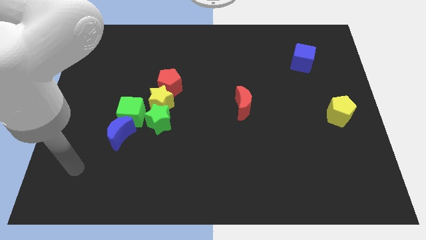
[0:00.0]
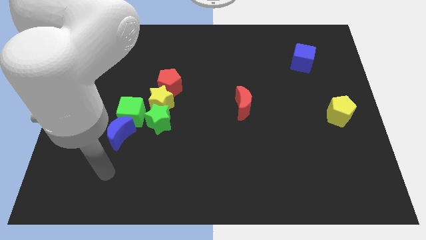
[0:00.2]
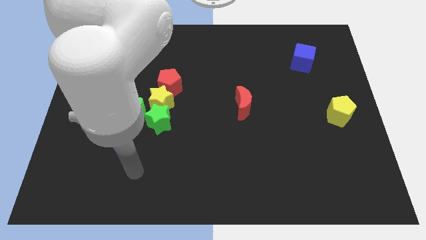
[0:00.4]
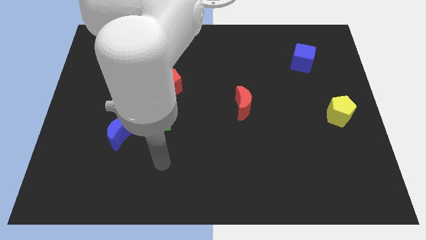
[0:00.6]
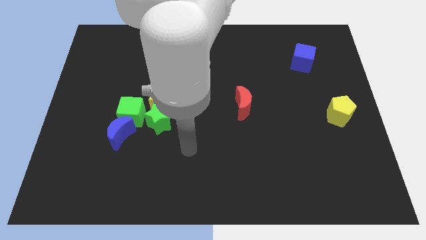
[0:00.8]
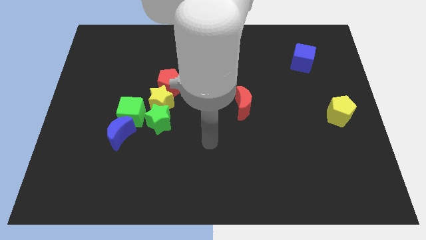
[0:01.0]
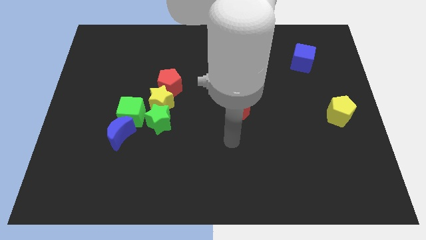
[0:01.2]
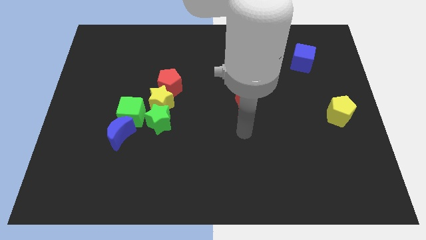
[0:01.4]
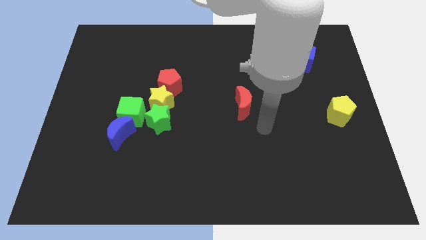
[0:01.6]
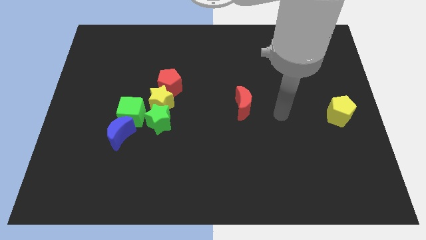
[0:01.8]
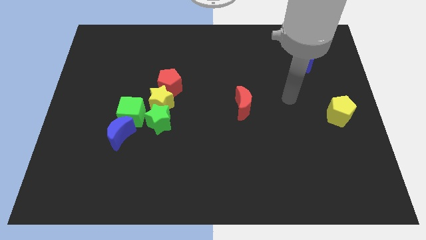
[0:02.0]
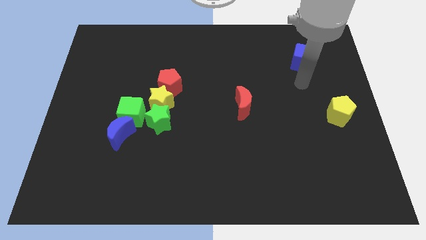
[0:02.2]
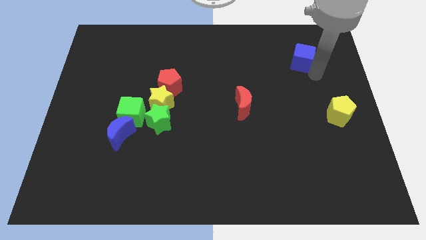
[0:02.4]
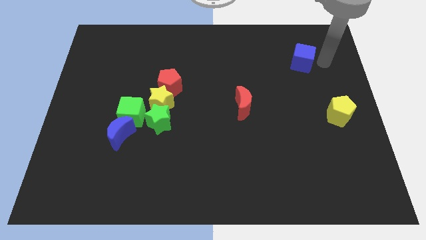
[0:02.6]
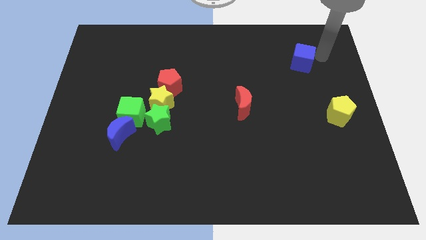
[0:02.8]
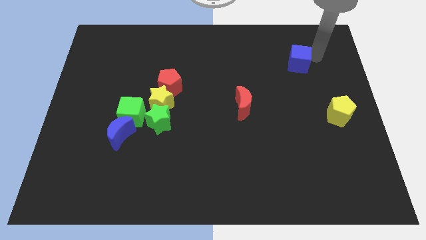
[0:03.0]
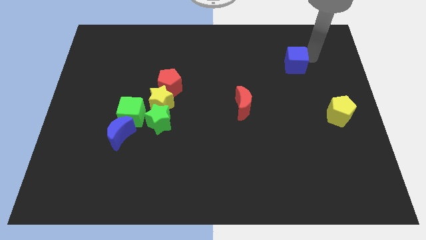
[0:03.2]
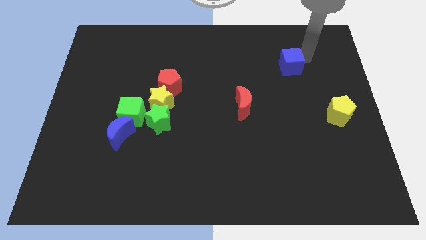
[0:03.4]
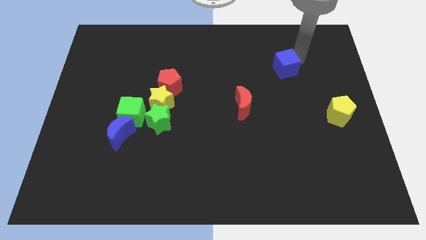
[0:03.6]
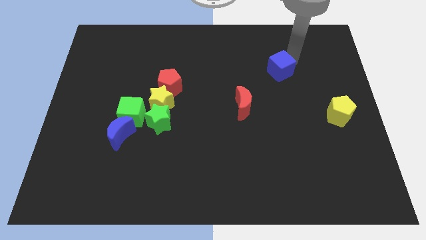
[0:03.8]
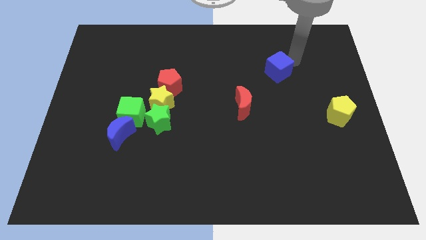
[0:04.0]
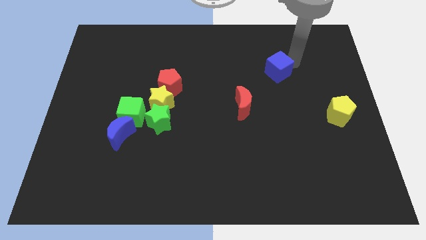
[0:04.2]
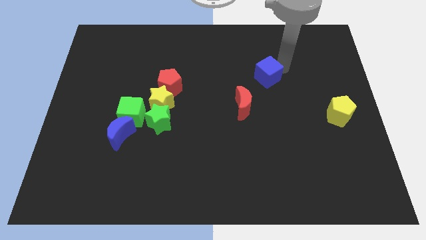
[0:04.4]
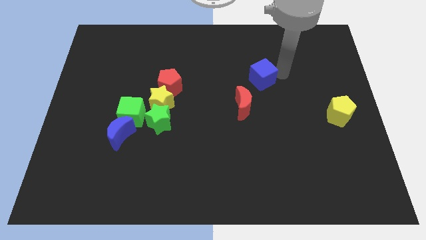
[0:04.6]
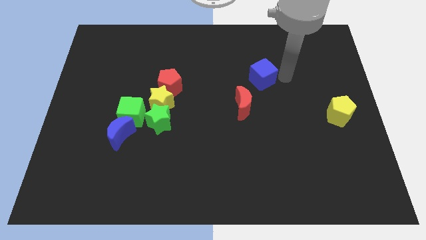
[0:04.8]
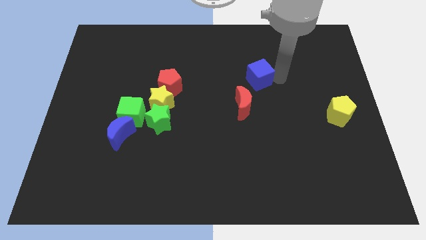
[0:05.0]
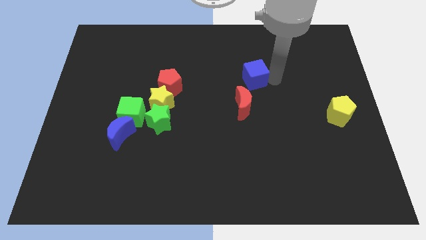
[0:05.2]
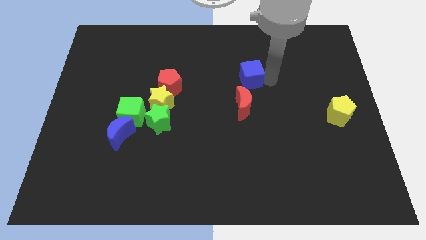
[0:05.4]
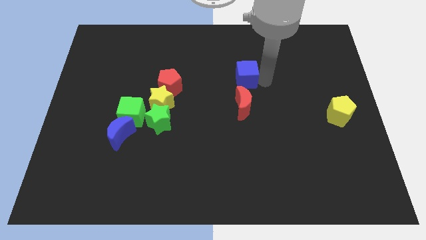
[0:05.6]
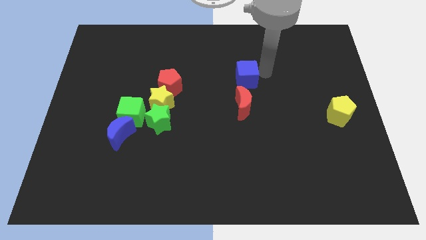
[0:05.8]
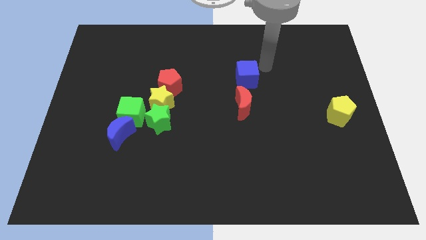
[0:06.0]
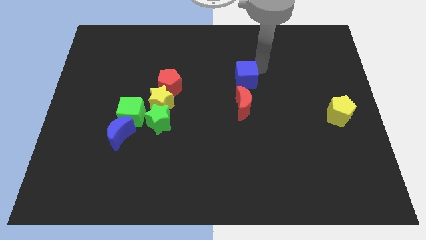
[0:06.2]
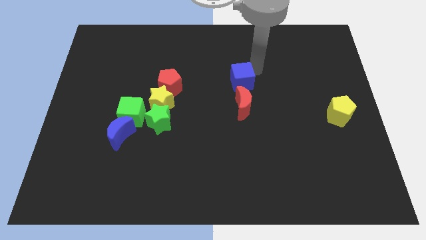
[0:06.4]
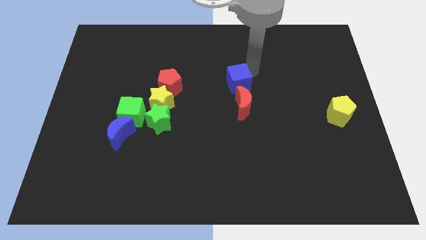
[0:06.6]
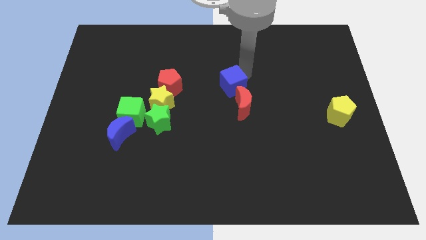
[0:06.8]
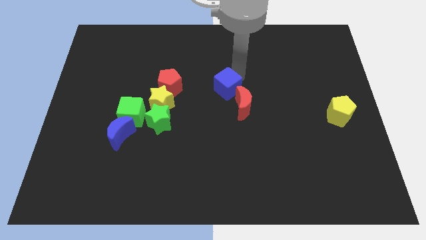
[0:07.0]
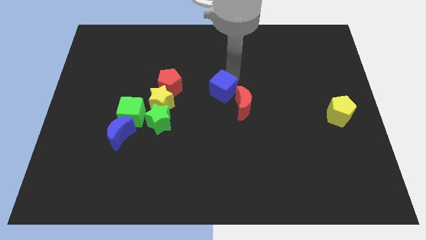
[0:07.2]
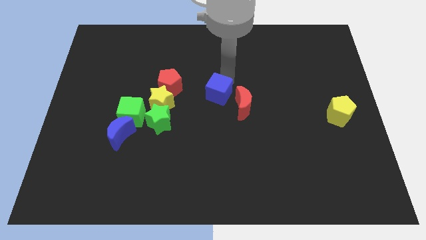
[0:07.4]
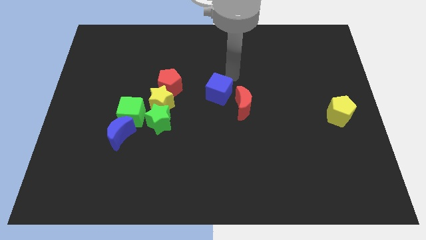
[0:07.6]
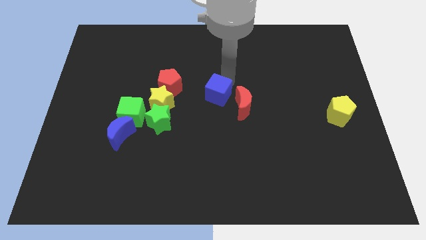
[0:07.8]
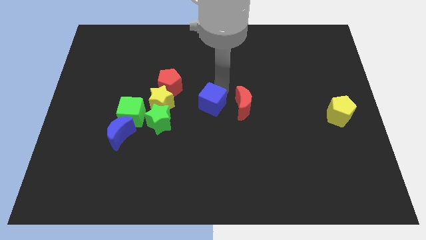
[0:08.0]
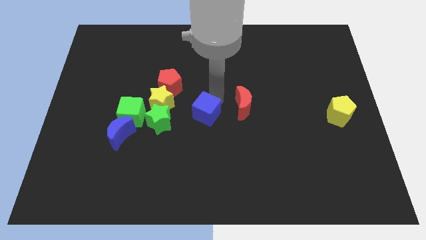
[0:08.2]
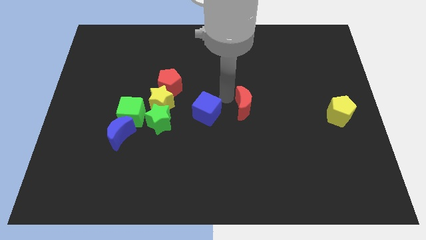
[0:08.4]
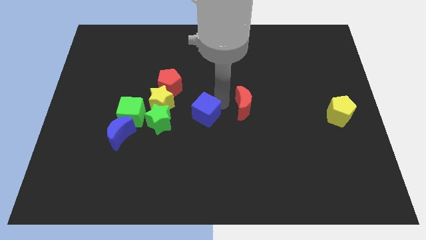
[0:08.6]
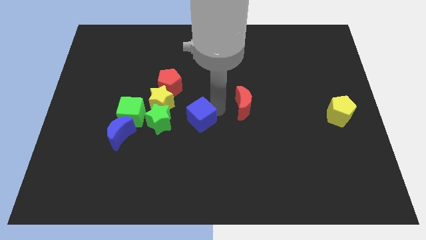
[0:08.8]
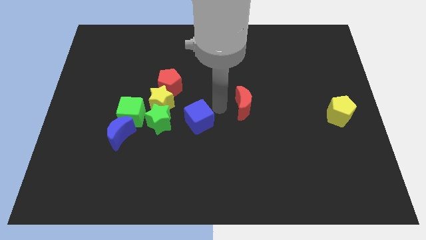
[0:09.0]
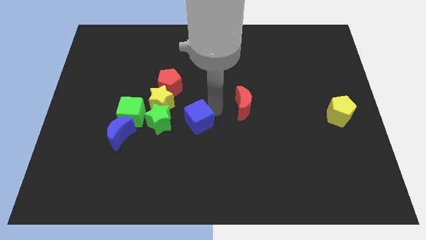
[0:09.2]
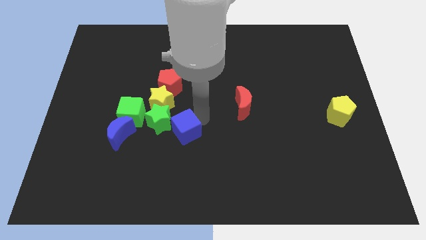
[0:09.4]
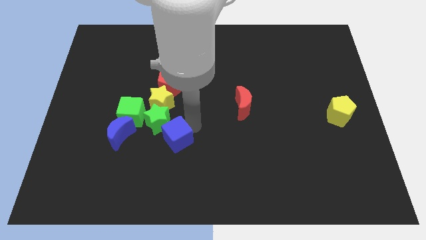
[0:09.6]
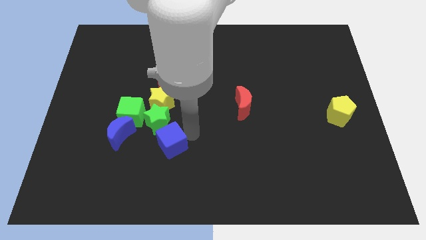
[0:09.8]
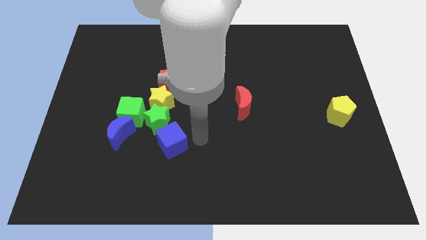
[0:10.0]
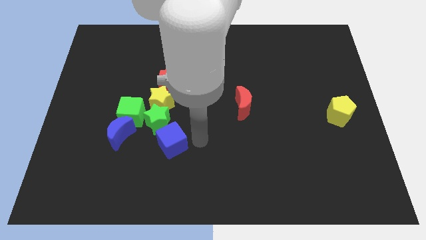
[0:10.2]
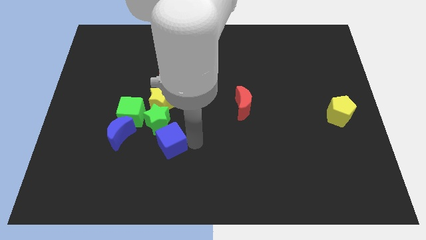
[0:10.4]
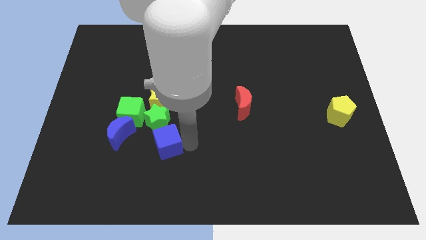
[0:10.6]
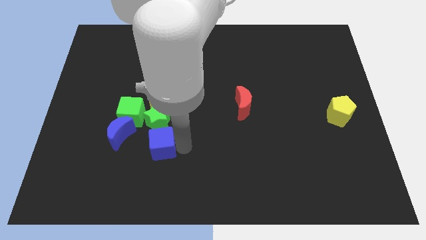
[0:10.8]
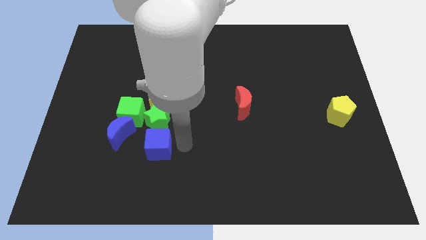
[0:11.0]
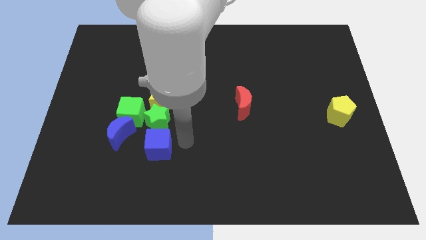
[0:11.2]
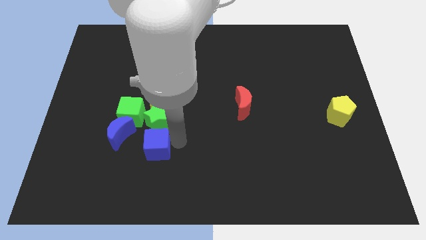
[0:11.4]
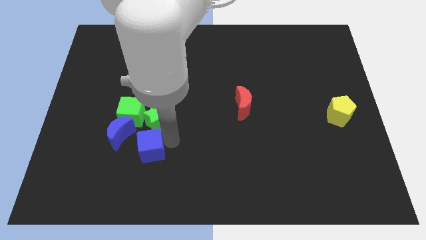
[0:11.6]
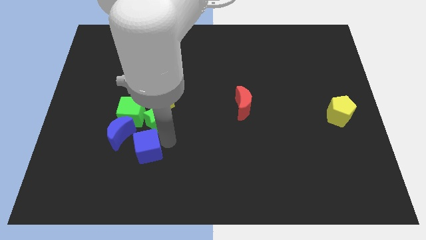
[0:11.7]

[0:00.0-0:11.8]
slide the blue cube below the green cube
